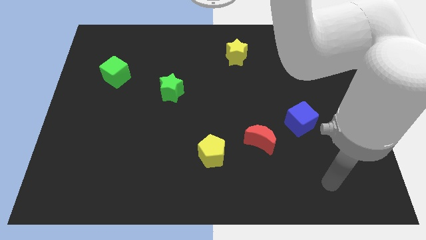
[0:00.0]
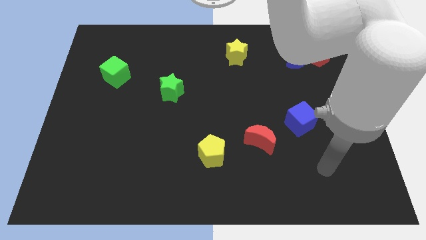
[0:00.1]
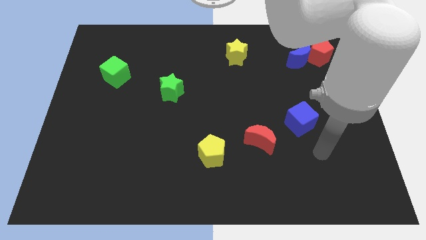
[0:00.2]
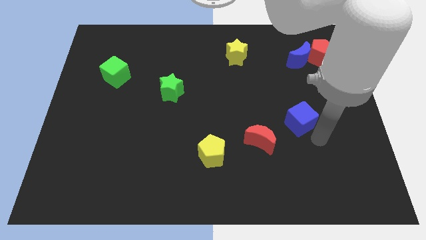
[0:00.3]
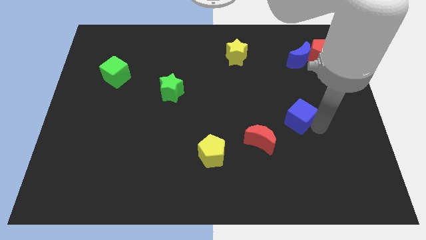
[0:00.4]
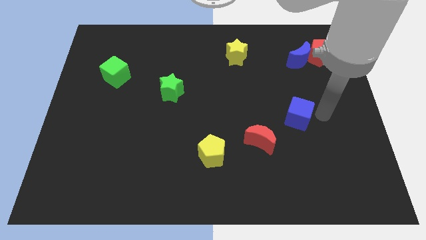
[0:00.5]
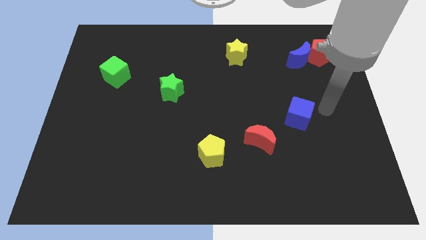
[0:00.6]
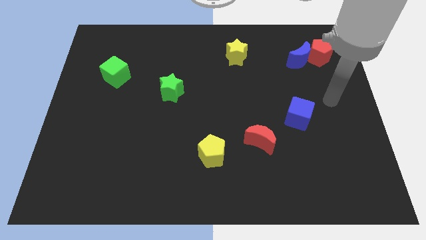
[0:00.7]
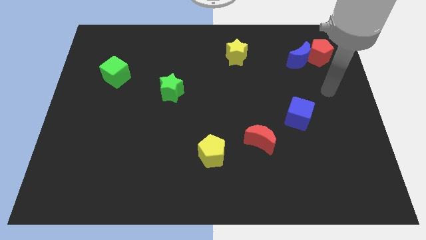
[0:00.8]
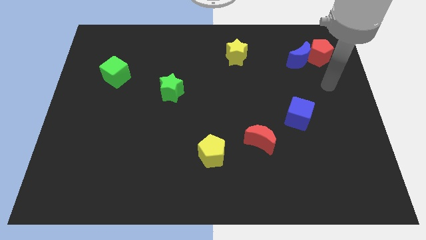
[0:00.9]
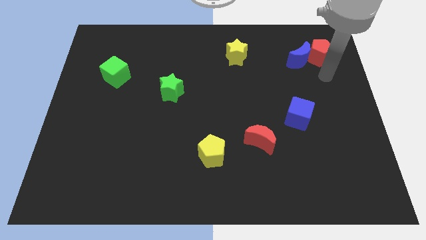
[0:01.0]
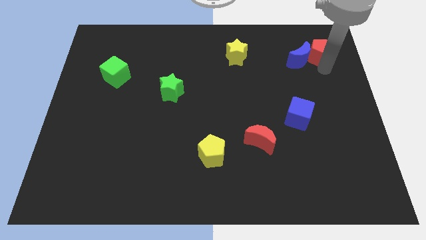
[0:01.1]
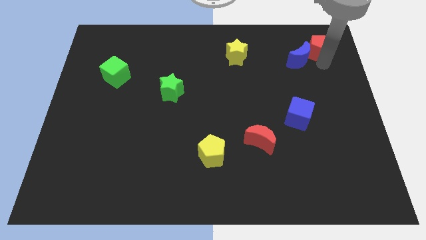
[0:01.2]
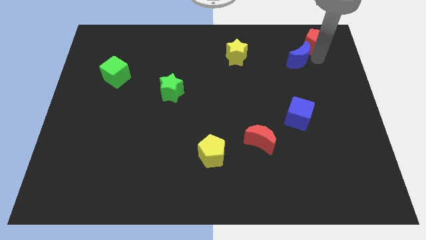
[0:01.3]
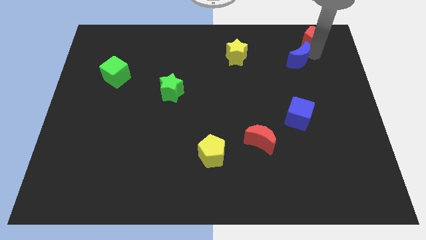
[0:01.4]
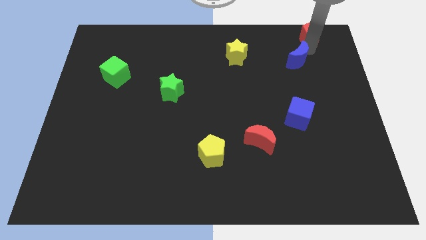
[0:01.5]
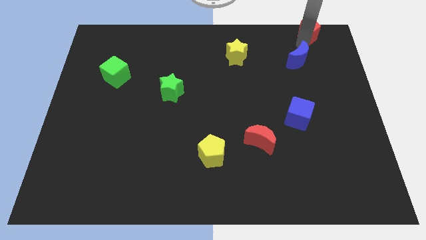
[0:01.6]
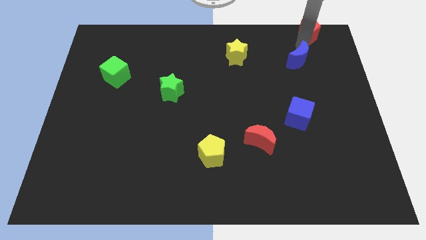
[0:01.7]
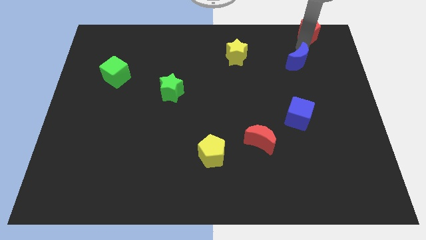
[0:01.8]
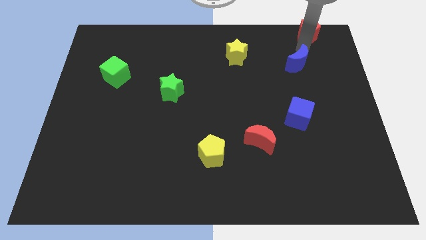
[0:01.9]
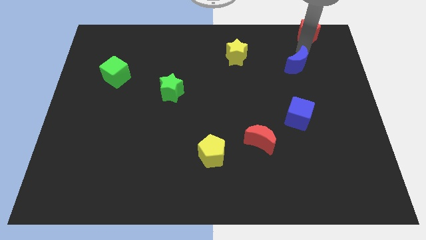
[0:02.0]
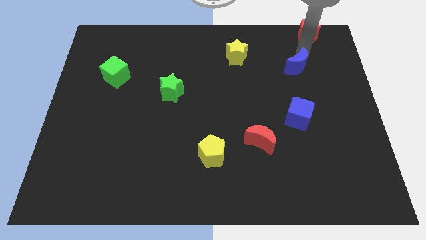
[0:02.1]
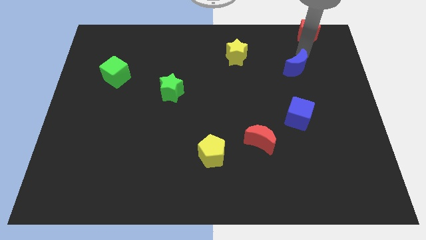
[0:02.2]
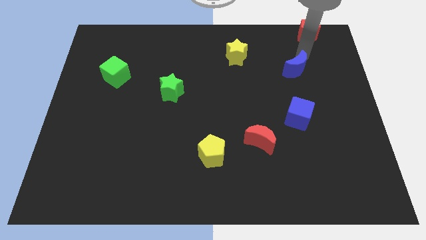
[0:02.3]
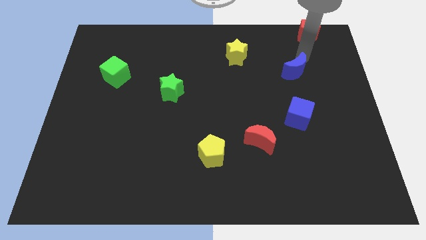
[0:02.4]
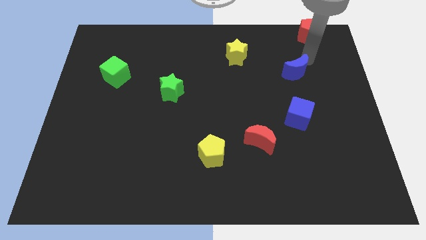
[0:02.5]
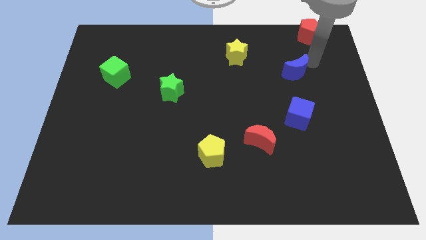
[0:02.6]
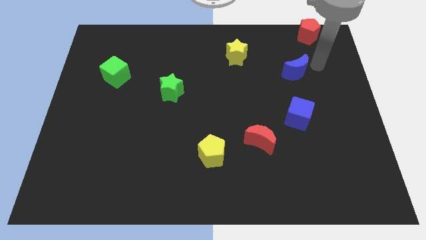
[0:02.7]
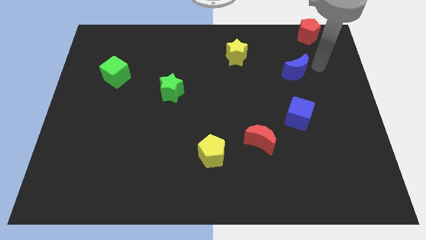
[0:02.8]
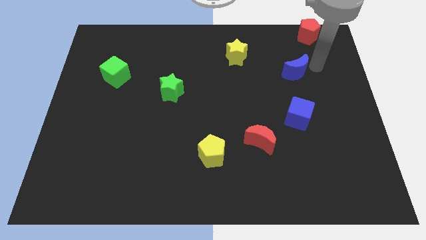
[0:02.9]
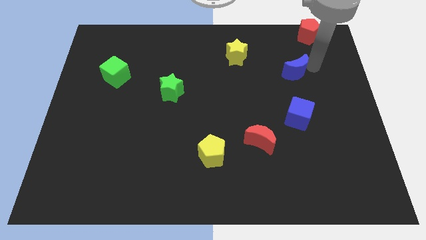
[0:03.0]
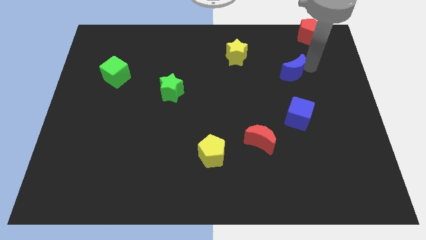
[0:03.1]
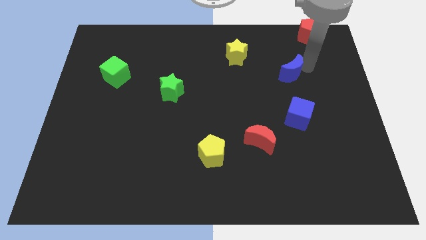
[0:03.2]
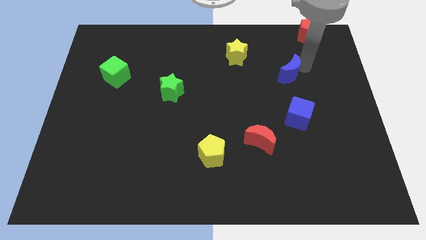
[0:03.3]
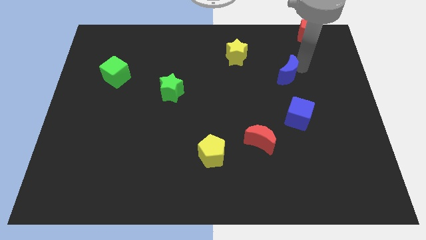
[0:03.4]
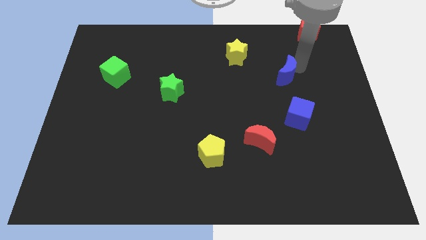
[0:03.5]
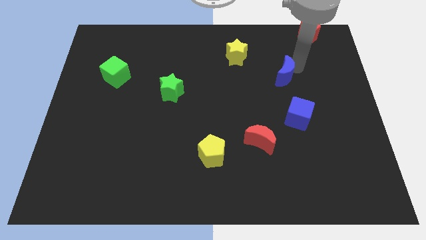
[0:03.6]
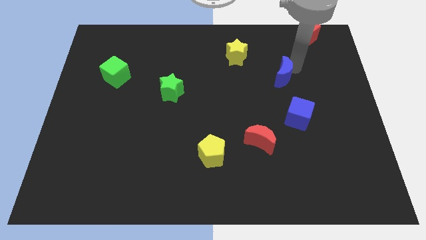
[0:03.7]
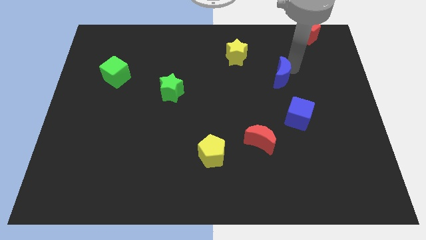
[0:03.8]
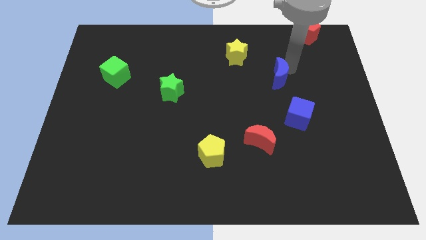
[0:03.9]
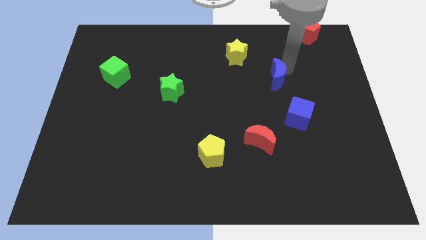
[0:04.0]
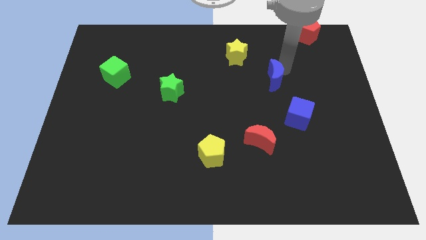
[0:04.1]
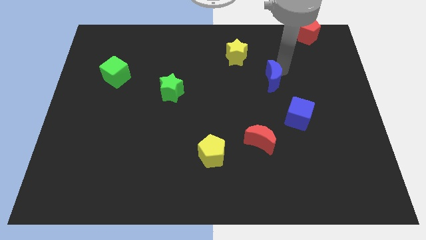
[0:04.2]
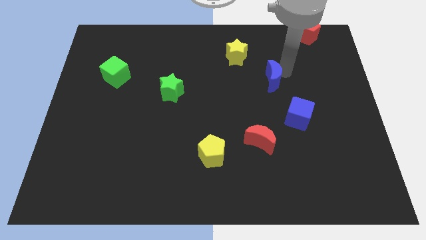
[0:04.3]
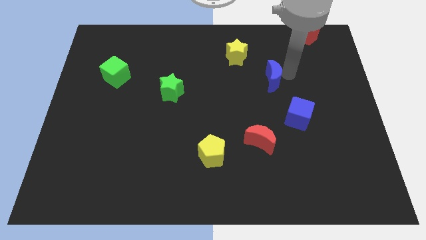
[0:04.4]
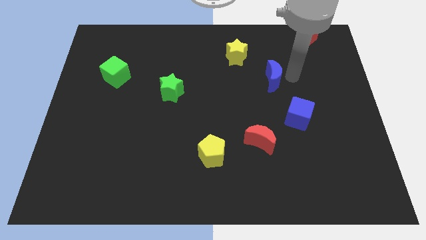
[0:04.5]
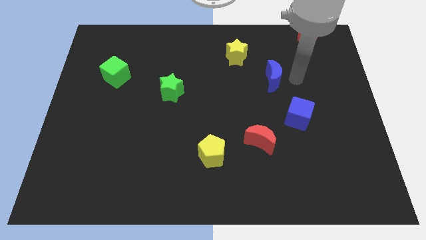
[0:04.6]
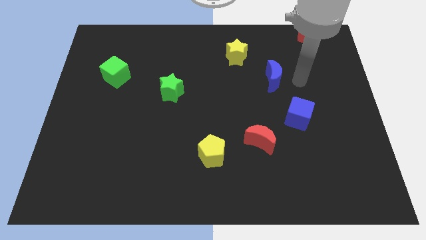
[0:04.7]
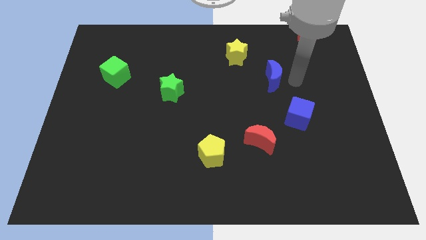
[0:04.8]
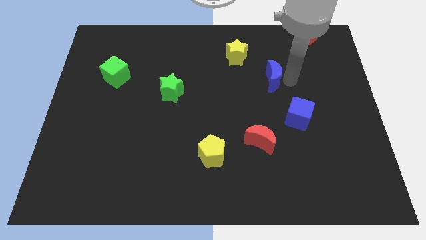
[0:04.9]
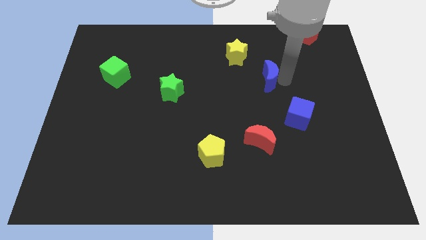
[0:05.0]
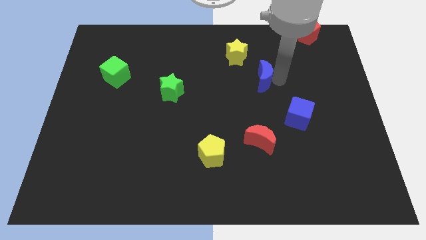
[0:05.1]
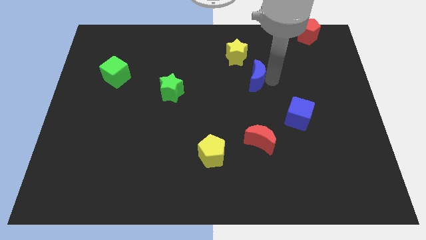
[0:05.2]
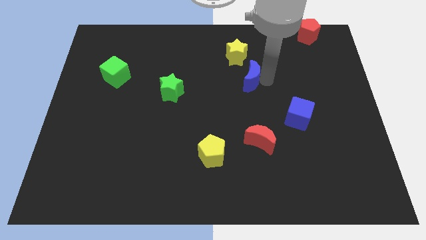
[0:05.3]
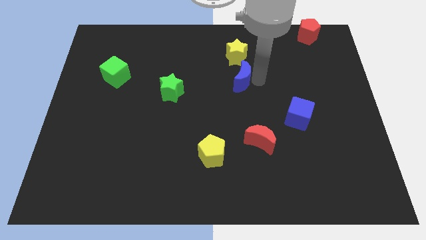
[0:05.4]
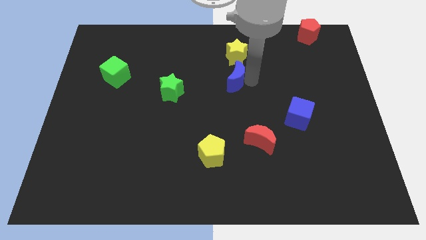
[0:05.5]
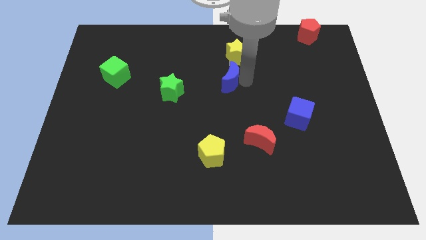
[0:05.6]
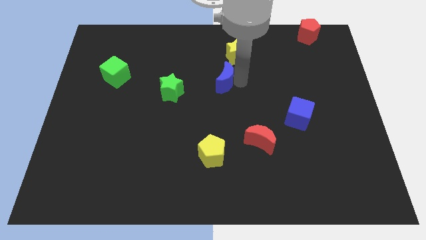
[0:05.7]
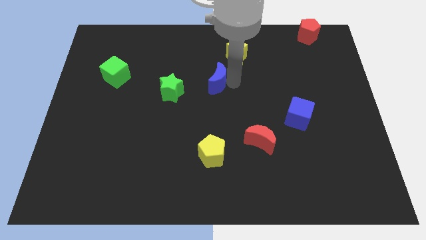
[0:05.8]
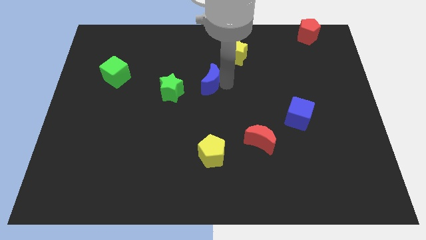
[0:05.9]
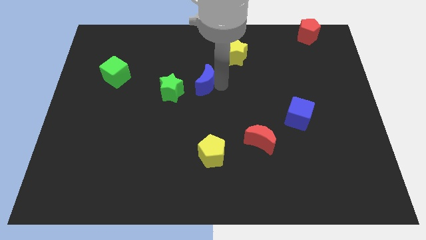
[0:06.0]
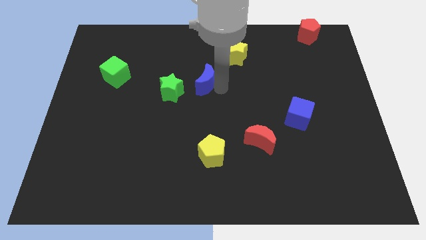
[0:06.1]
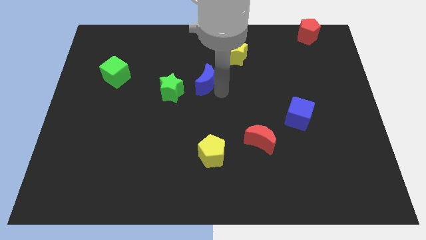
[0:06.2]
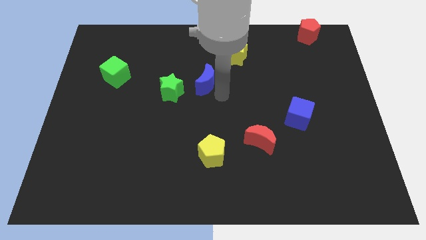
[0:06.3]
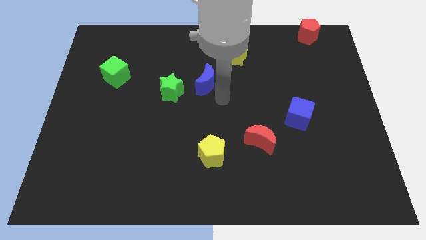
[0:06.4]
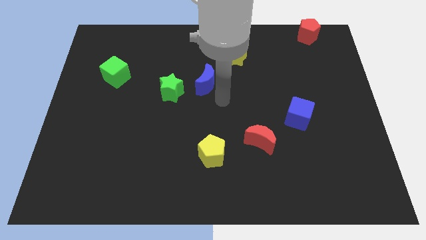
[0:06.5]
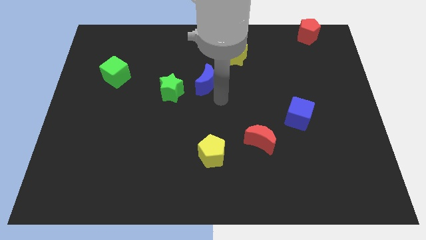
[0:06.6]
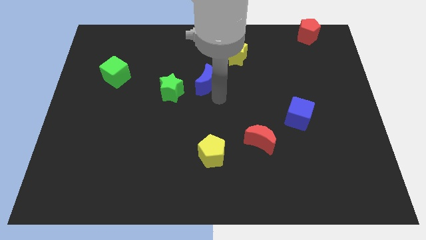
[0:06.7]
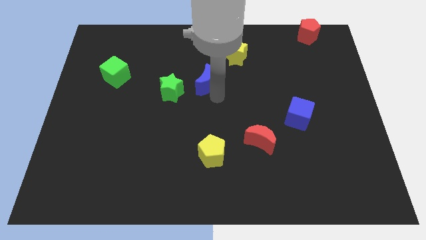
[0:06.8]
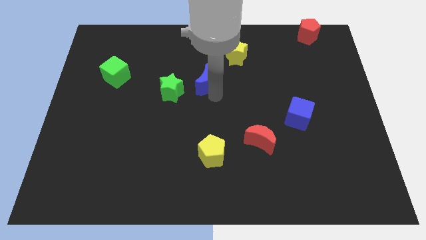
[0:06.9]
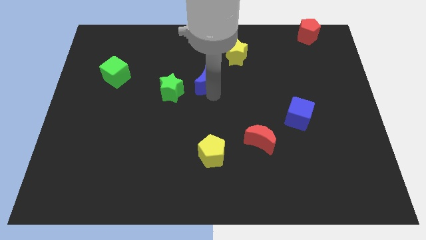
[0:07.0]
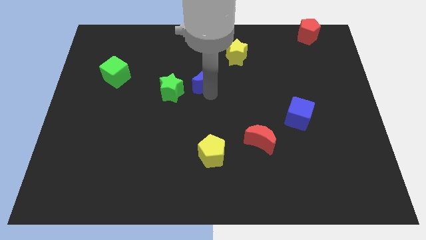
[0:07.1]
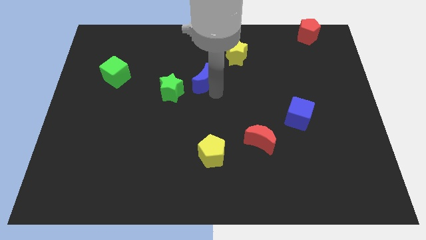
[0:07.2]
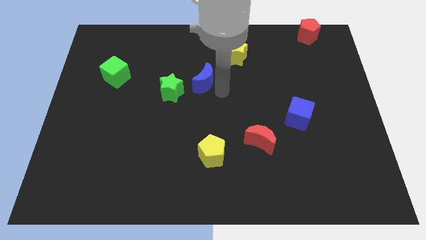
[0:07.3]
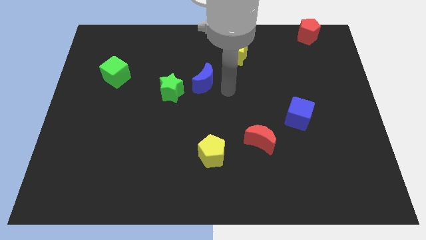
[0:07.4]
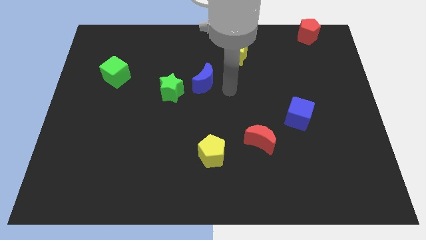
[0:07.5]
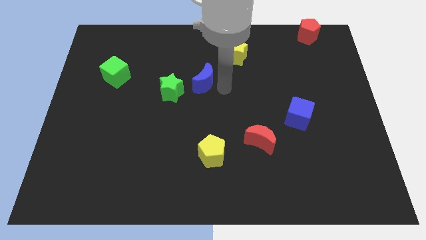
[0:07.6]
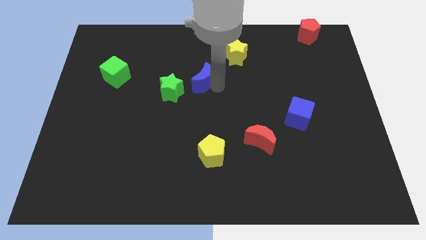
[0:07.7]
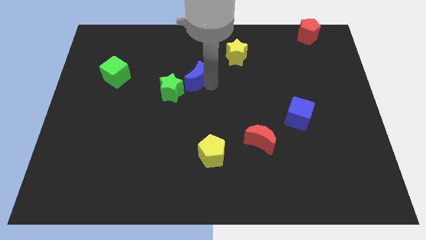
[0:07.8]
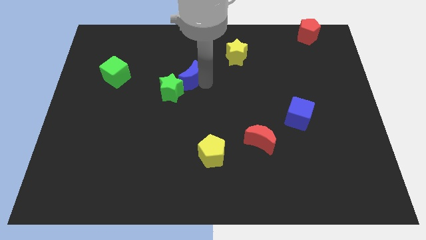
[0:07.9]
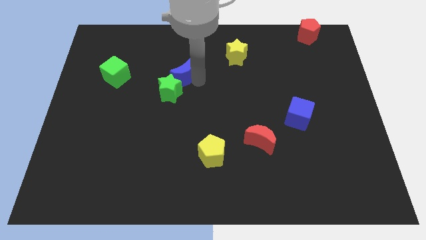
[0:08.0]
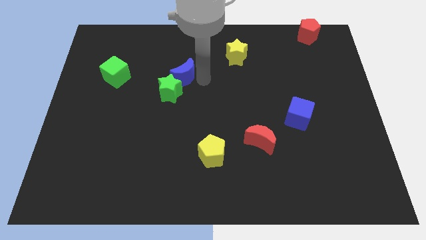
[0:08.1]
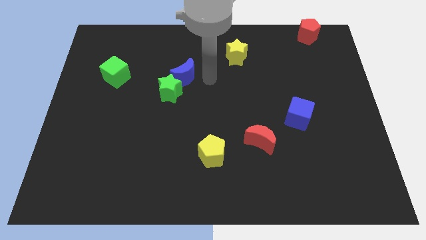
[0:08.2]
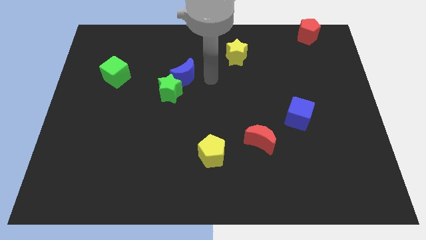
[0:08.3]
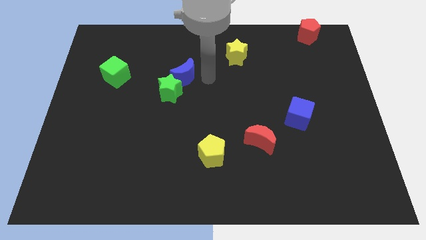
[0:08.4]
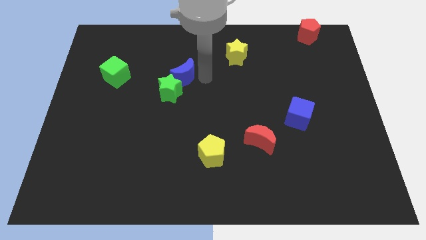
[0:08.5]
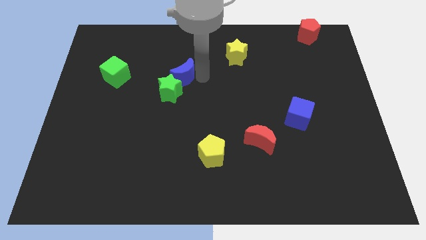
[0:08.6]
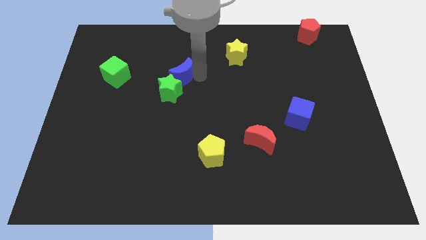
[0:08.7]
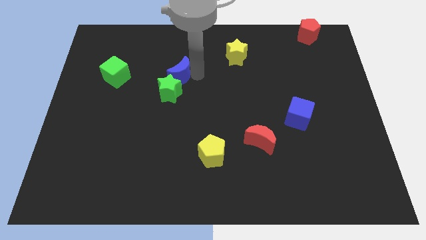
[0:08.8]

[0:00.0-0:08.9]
push the blue moon right of the green cube
